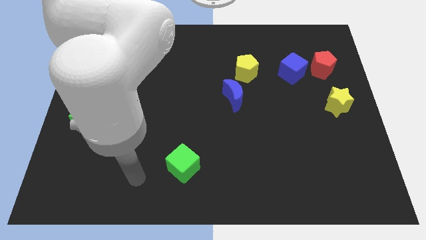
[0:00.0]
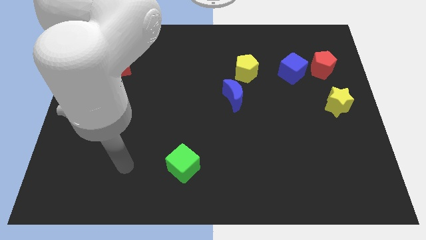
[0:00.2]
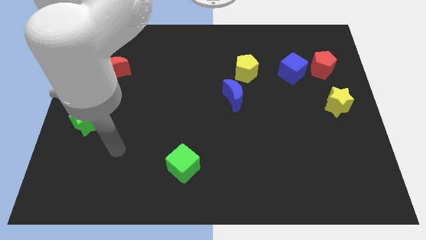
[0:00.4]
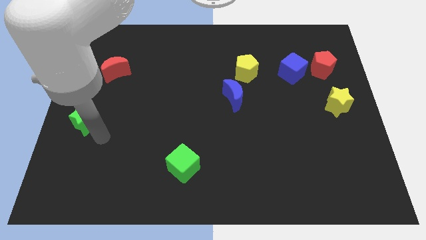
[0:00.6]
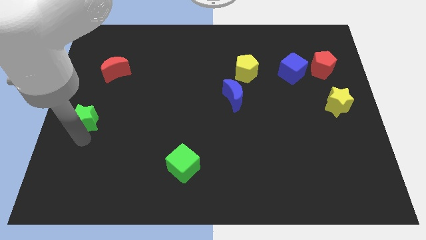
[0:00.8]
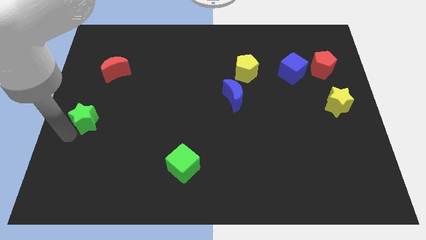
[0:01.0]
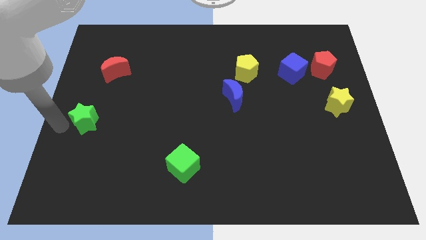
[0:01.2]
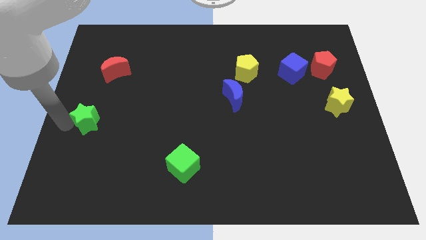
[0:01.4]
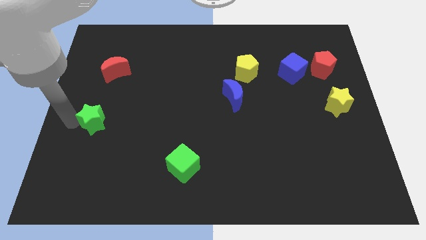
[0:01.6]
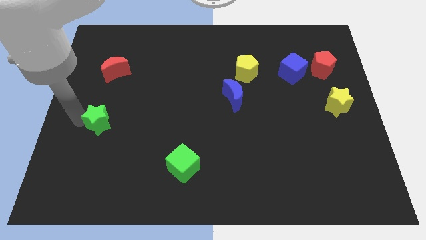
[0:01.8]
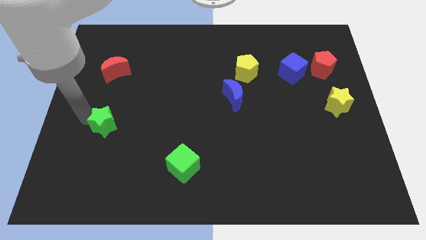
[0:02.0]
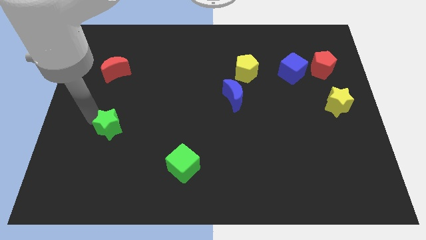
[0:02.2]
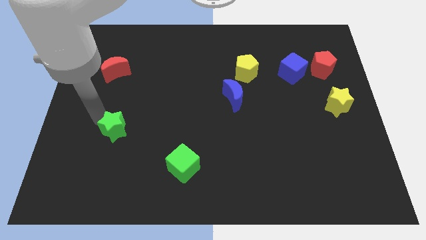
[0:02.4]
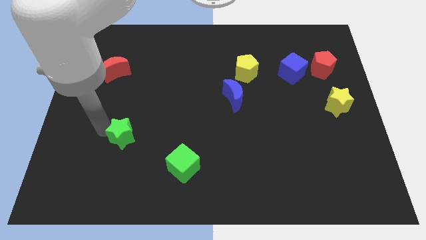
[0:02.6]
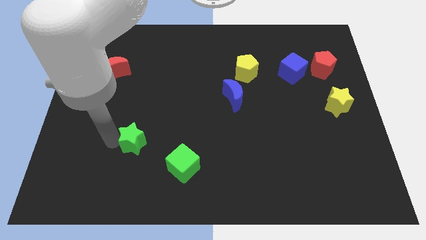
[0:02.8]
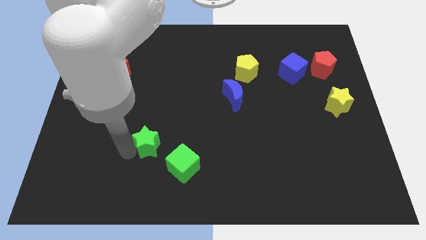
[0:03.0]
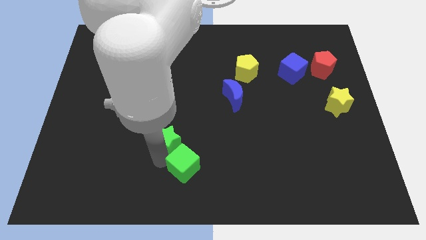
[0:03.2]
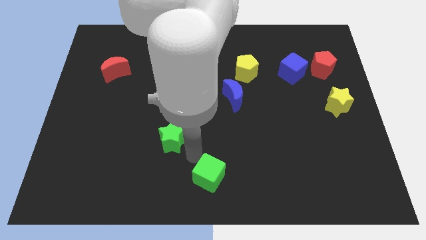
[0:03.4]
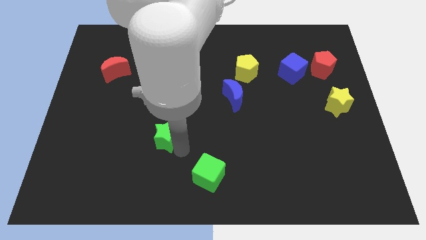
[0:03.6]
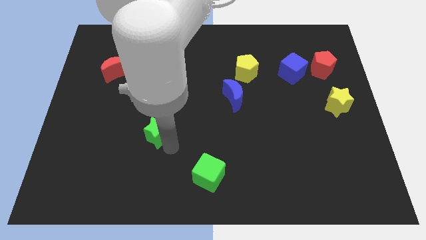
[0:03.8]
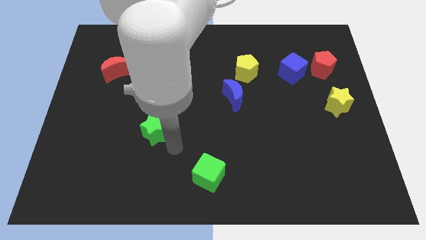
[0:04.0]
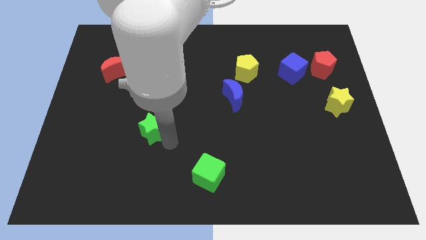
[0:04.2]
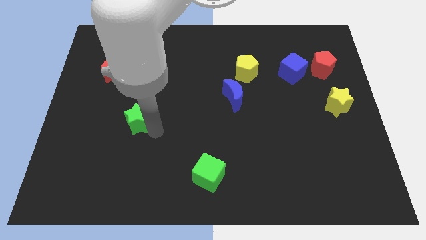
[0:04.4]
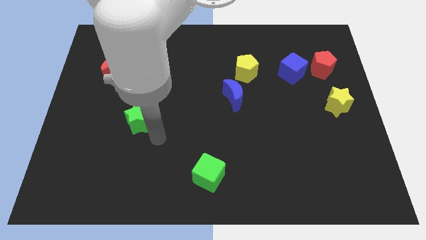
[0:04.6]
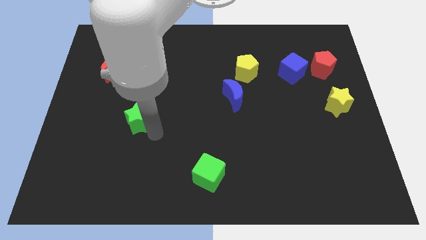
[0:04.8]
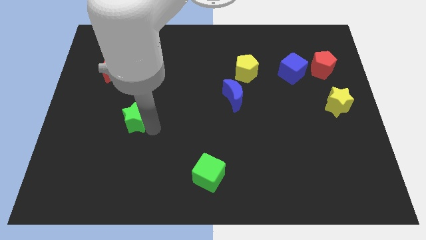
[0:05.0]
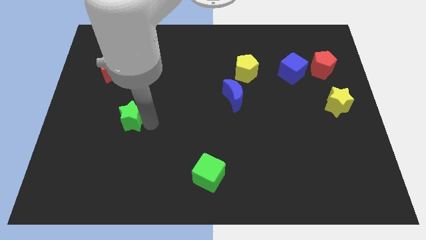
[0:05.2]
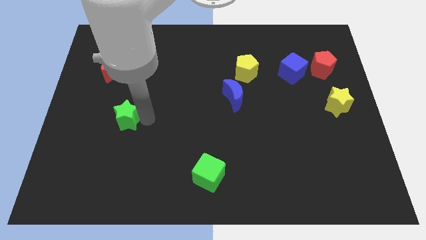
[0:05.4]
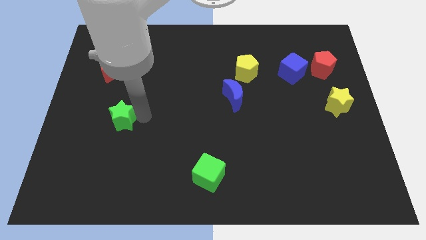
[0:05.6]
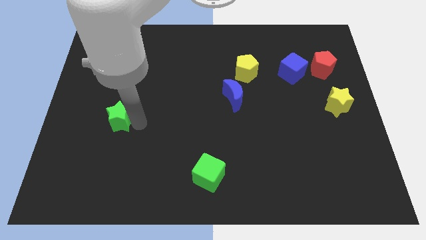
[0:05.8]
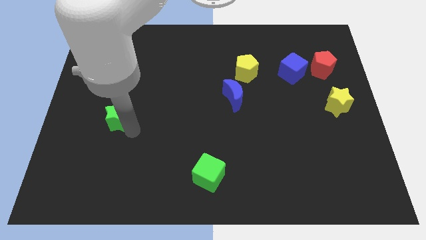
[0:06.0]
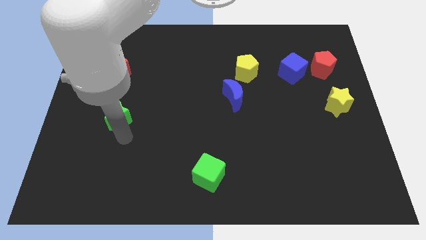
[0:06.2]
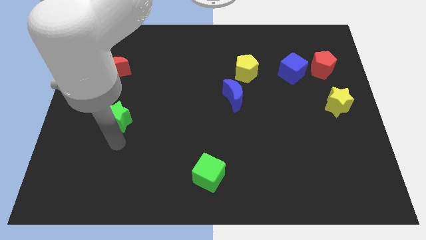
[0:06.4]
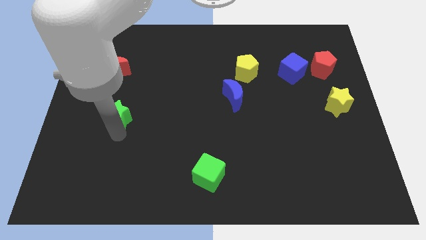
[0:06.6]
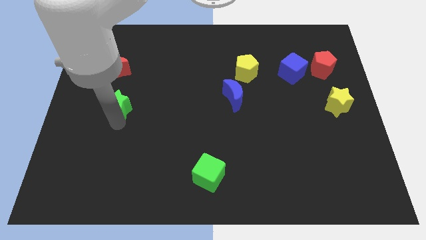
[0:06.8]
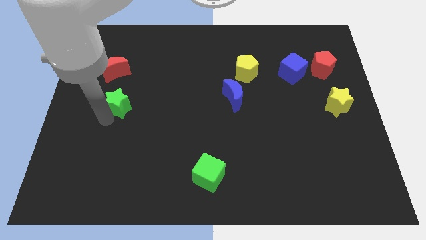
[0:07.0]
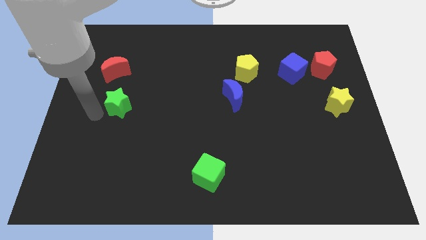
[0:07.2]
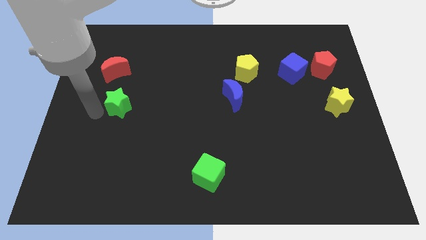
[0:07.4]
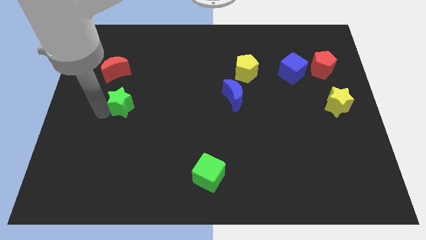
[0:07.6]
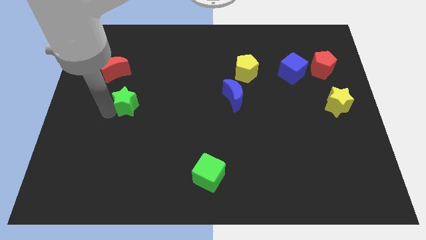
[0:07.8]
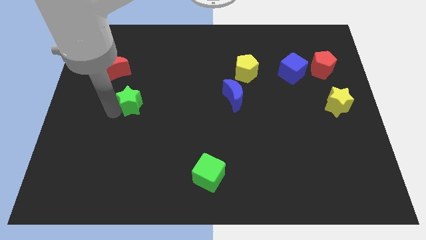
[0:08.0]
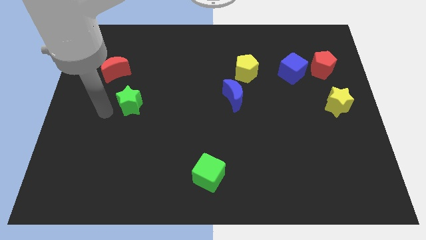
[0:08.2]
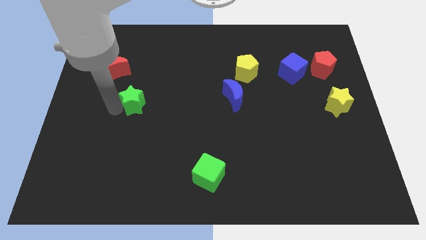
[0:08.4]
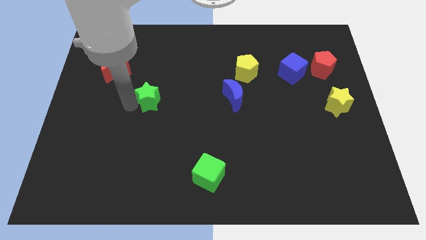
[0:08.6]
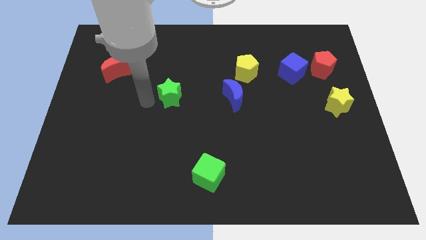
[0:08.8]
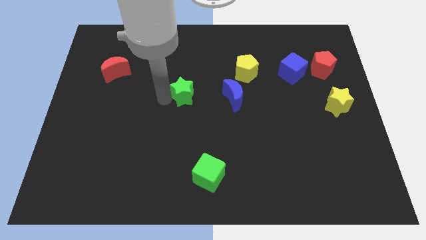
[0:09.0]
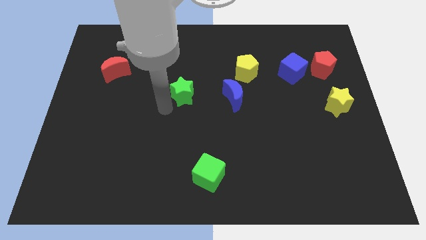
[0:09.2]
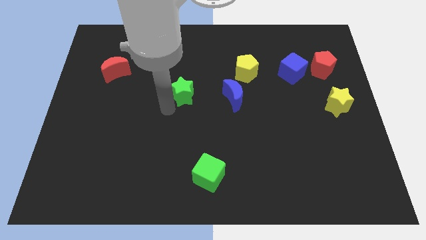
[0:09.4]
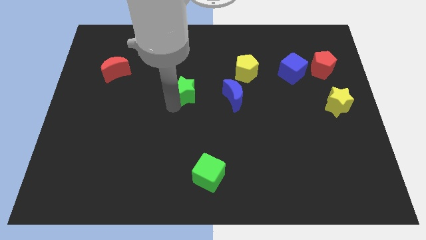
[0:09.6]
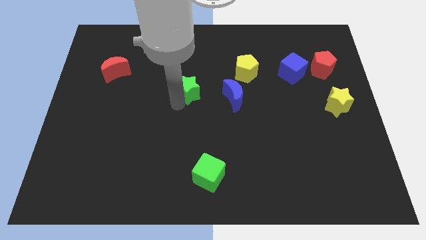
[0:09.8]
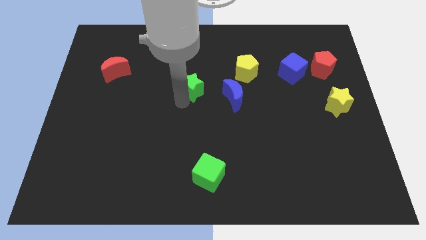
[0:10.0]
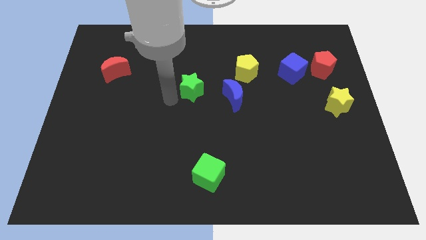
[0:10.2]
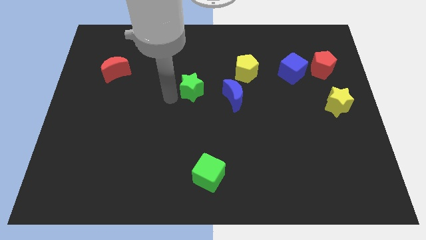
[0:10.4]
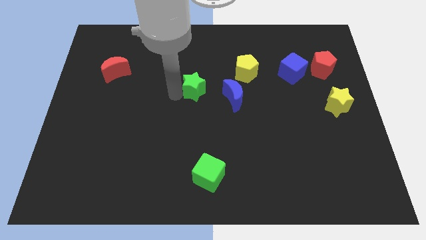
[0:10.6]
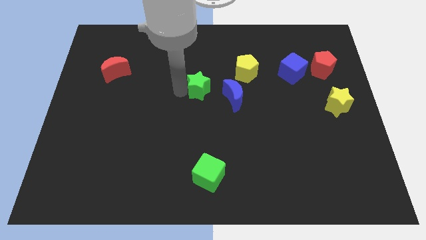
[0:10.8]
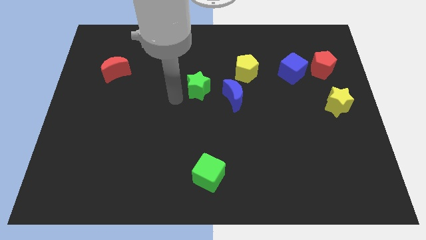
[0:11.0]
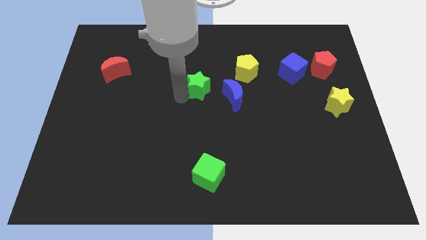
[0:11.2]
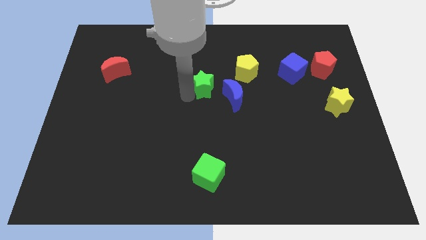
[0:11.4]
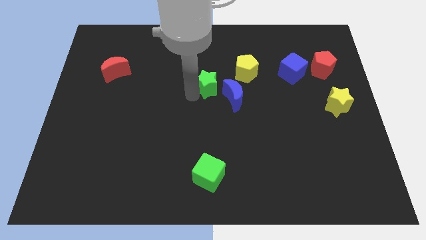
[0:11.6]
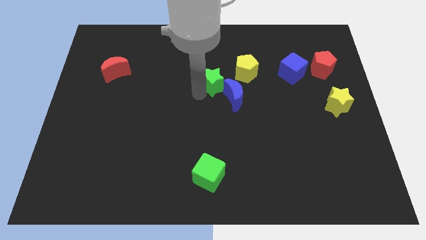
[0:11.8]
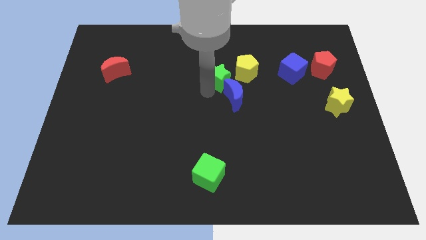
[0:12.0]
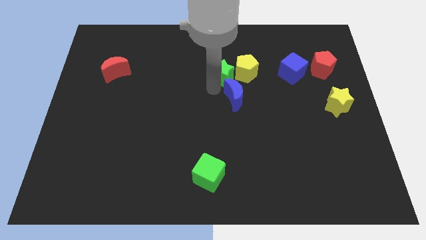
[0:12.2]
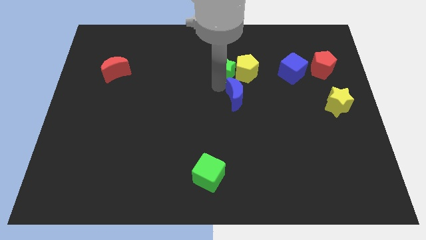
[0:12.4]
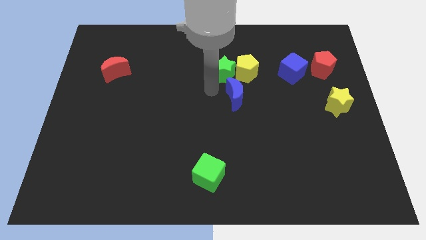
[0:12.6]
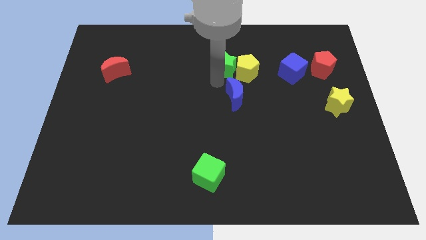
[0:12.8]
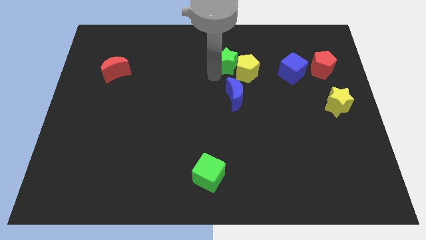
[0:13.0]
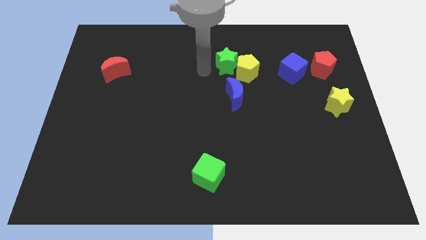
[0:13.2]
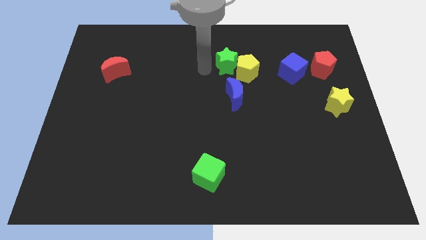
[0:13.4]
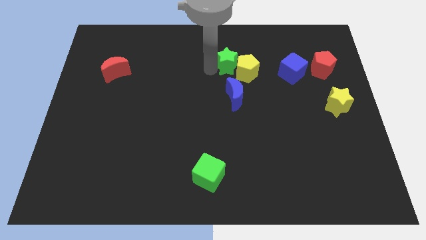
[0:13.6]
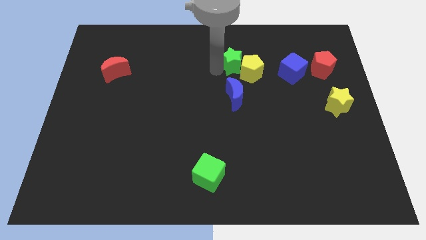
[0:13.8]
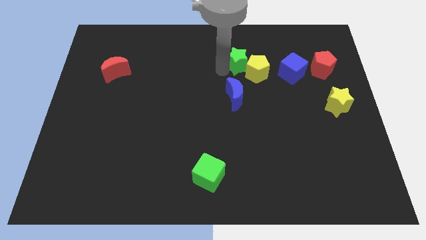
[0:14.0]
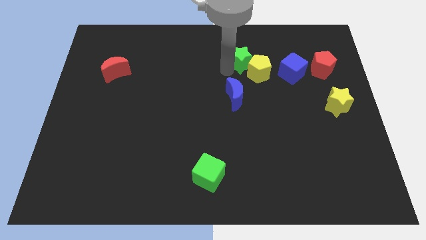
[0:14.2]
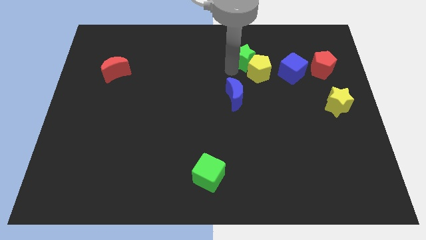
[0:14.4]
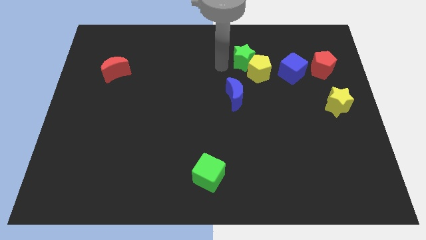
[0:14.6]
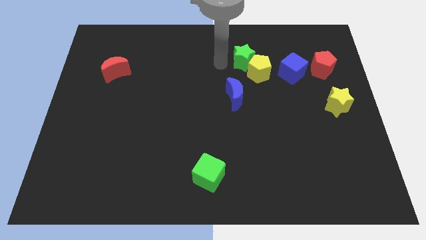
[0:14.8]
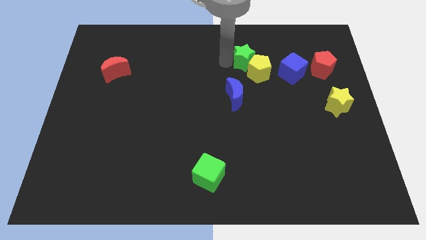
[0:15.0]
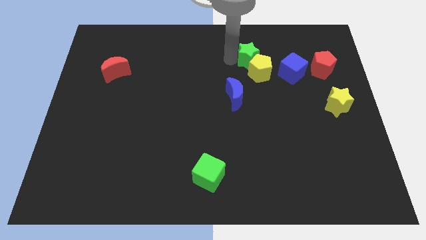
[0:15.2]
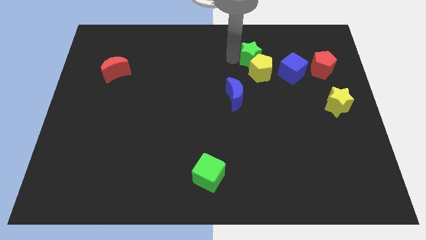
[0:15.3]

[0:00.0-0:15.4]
put the green star diagonally up and to the left of the blue cube
